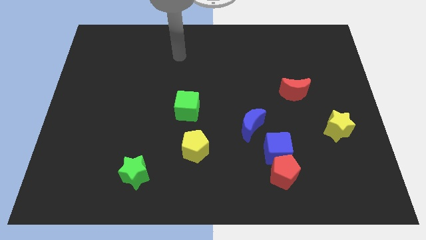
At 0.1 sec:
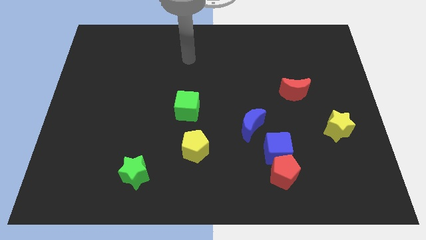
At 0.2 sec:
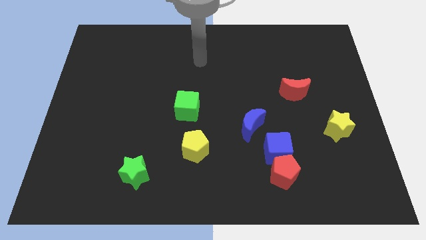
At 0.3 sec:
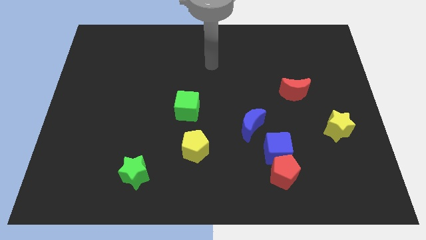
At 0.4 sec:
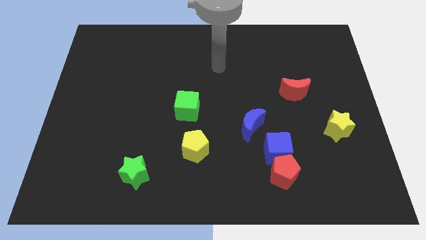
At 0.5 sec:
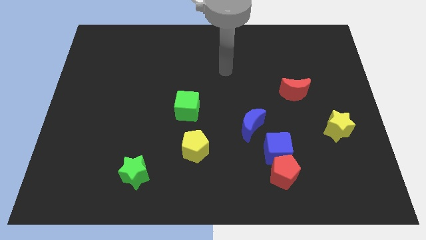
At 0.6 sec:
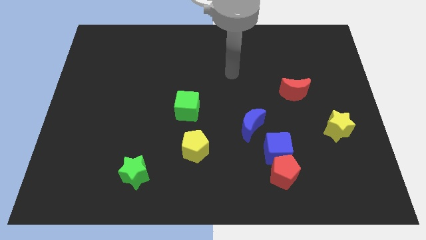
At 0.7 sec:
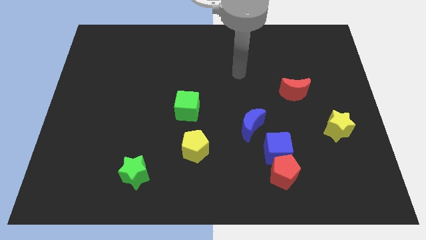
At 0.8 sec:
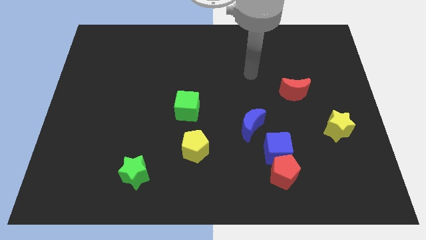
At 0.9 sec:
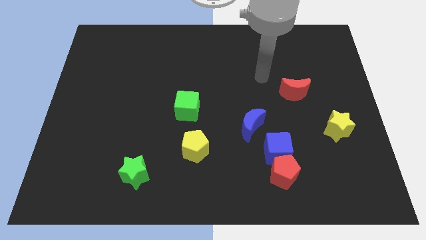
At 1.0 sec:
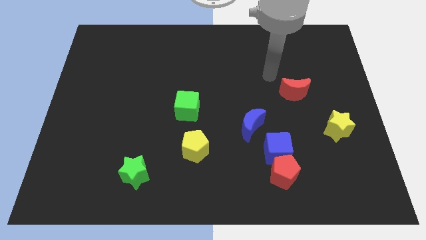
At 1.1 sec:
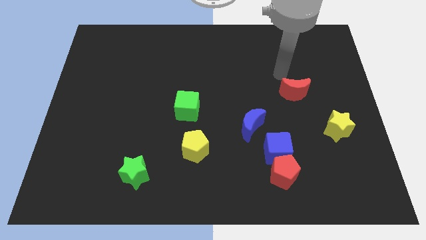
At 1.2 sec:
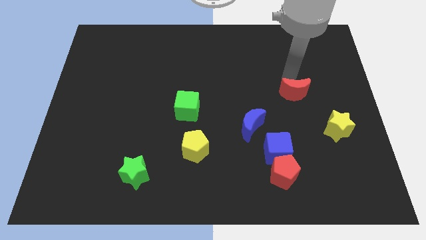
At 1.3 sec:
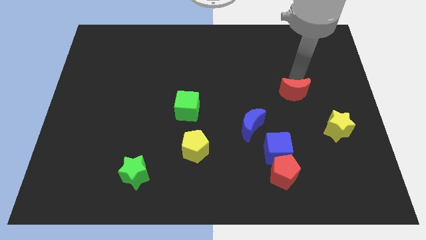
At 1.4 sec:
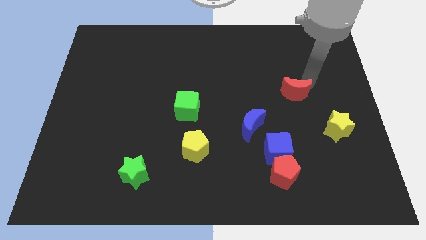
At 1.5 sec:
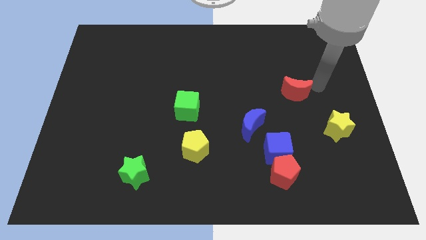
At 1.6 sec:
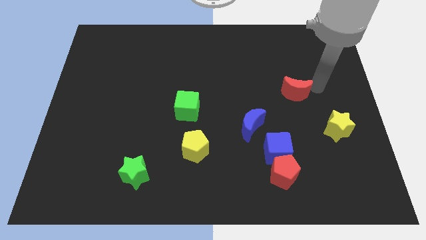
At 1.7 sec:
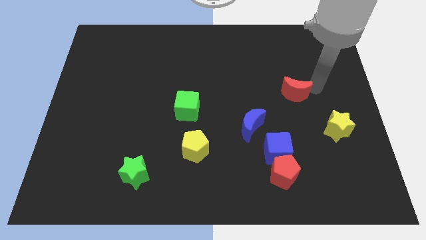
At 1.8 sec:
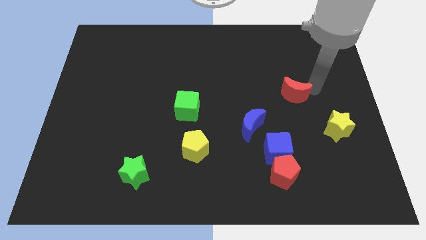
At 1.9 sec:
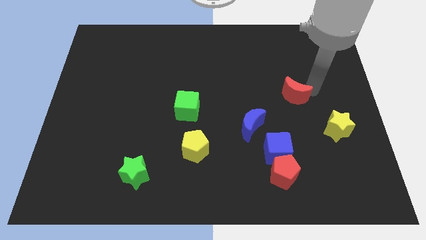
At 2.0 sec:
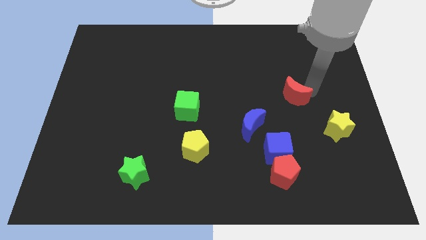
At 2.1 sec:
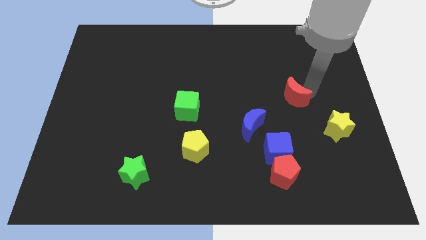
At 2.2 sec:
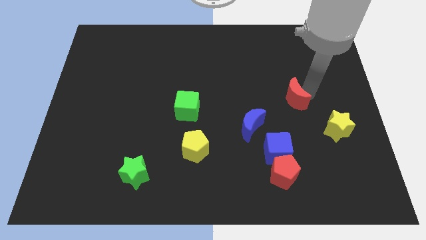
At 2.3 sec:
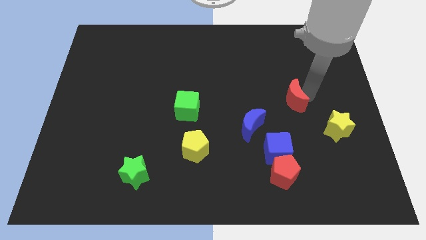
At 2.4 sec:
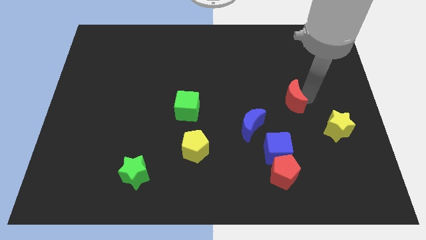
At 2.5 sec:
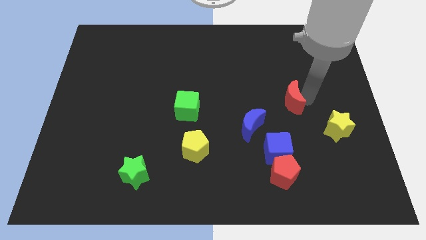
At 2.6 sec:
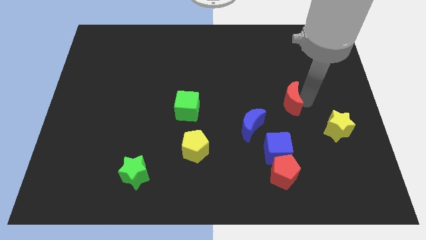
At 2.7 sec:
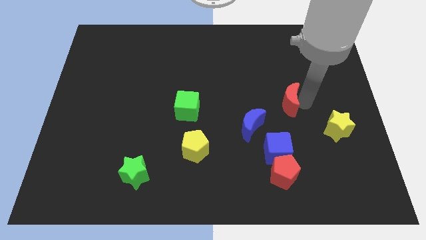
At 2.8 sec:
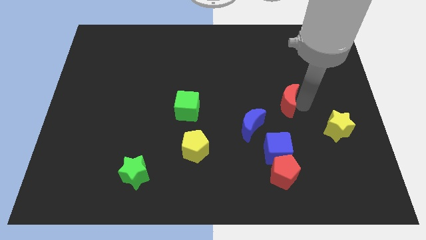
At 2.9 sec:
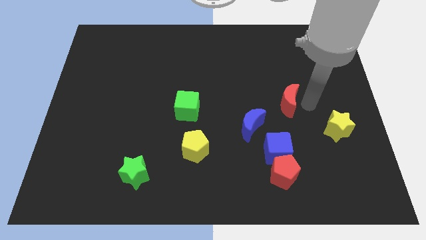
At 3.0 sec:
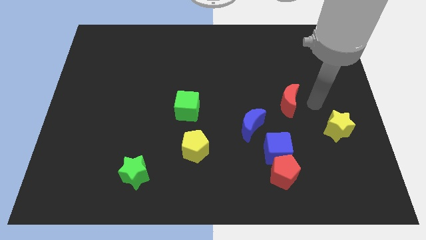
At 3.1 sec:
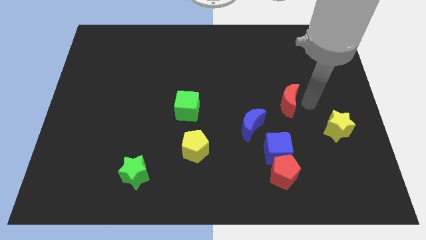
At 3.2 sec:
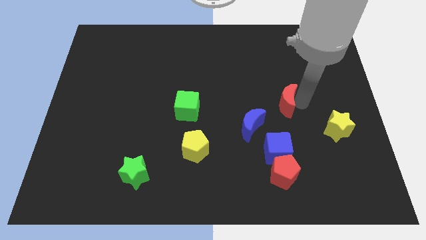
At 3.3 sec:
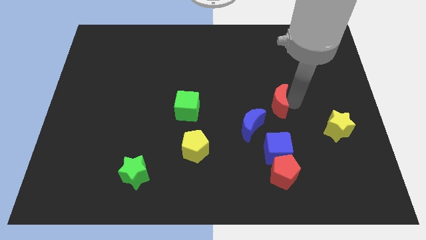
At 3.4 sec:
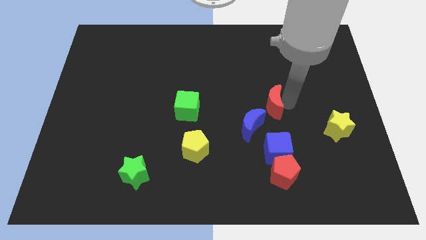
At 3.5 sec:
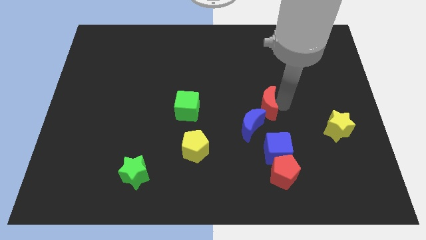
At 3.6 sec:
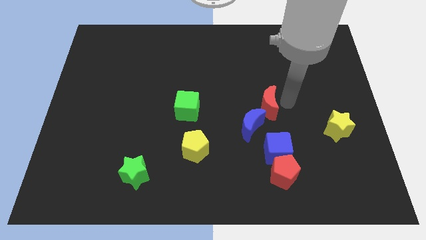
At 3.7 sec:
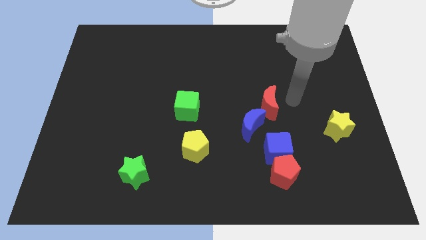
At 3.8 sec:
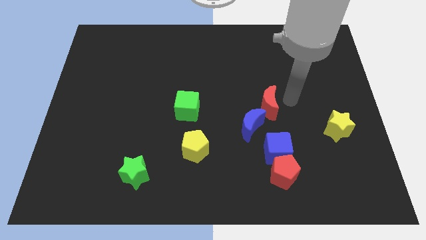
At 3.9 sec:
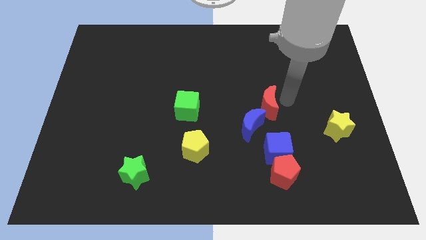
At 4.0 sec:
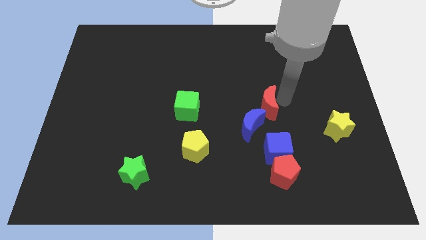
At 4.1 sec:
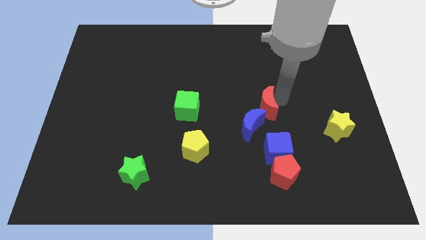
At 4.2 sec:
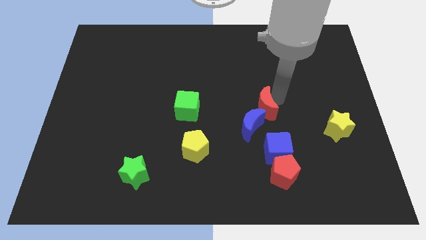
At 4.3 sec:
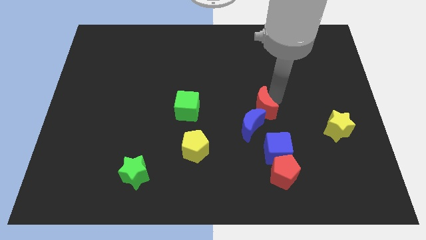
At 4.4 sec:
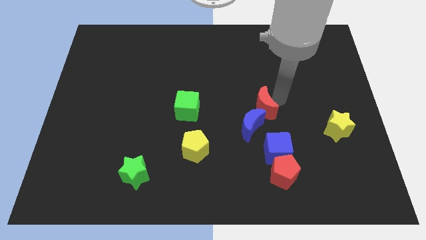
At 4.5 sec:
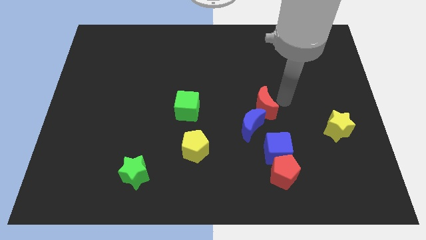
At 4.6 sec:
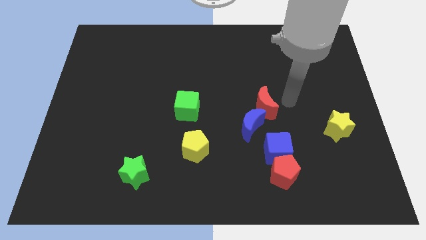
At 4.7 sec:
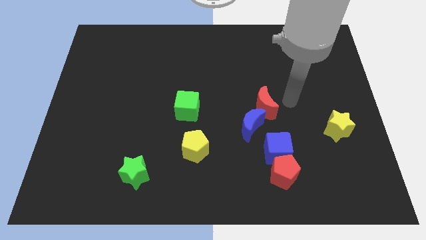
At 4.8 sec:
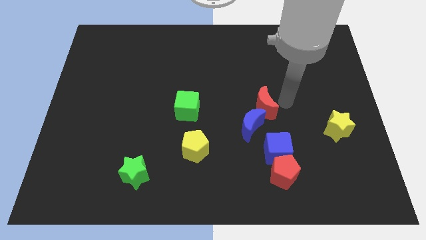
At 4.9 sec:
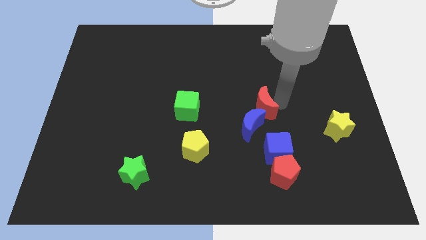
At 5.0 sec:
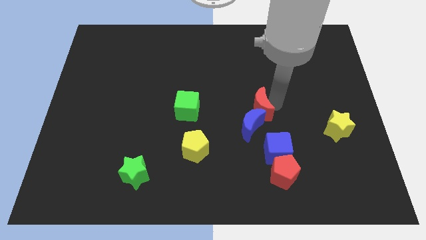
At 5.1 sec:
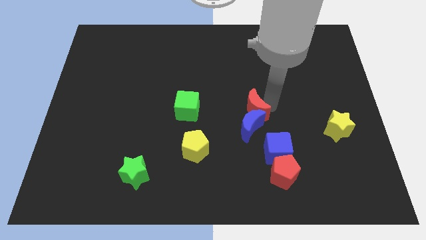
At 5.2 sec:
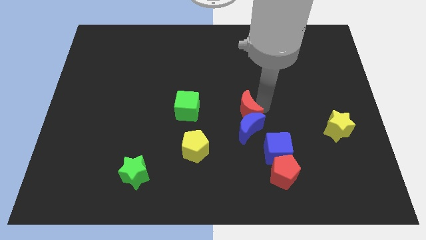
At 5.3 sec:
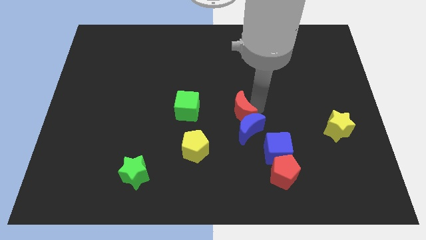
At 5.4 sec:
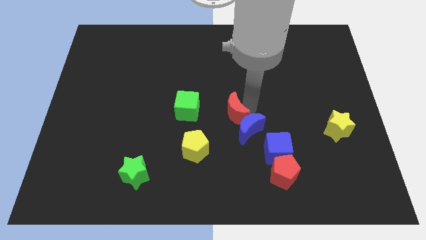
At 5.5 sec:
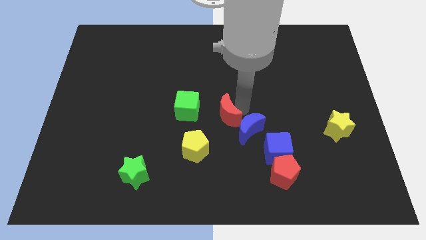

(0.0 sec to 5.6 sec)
move the red moon to the top right of the yellow pentagon

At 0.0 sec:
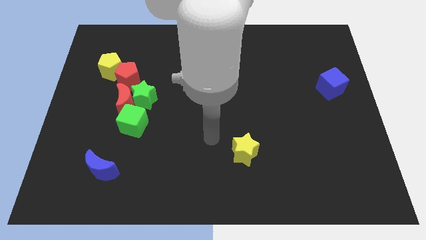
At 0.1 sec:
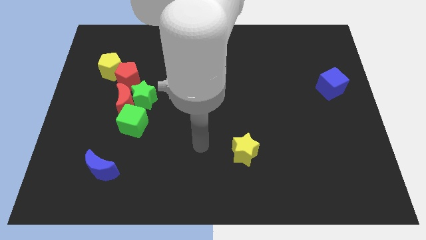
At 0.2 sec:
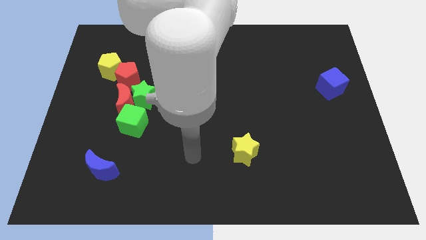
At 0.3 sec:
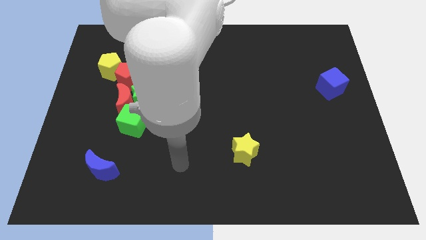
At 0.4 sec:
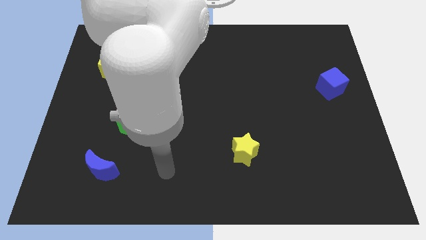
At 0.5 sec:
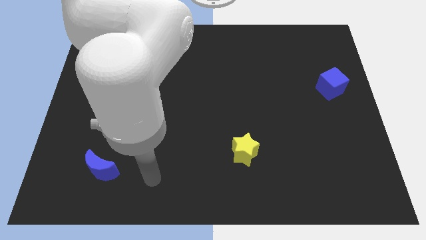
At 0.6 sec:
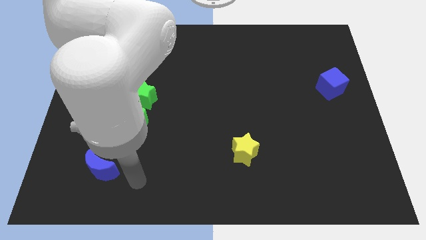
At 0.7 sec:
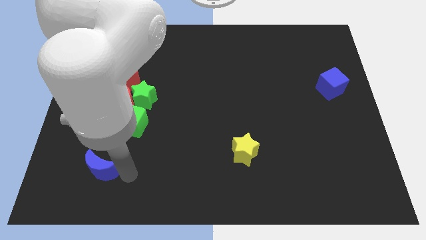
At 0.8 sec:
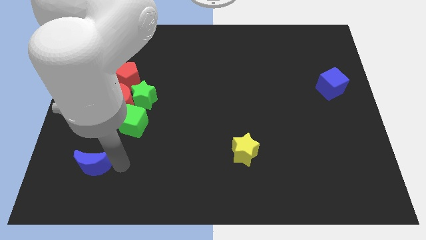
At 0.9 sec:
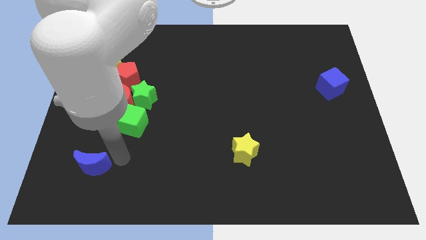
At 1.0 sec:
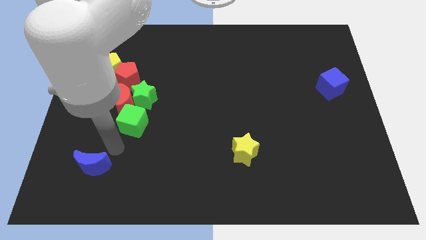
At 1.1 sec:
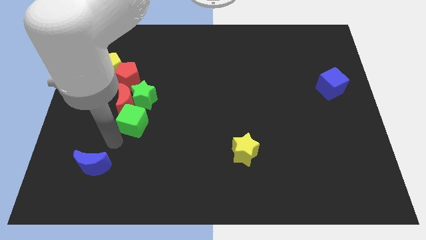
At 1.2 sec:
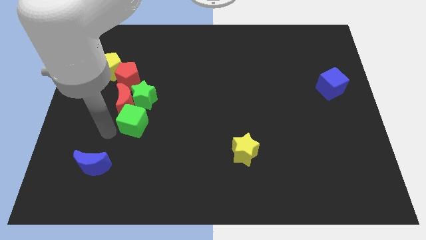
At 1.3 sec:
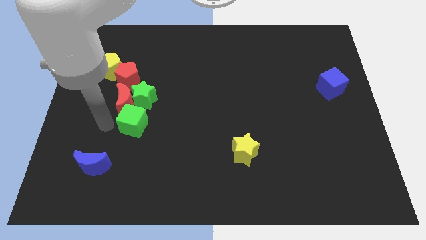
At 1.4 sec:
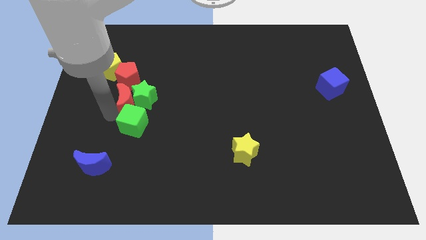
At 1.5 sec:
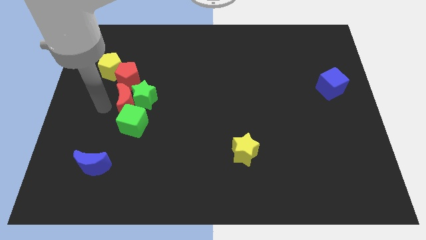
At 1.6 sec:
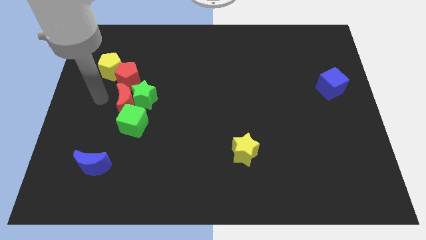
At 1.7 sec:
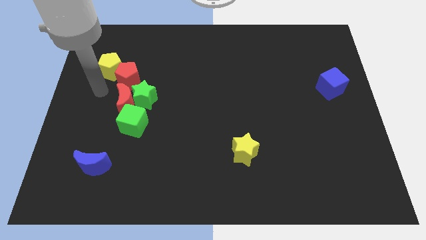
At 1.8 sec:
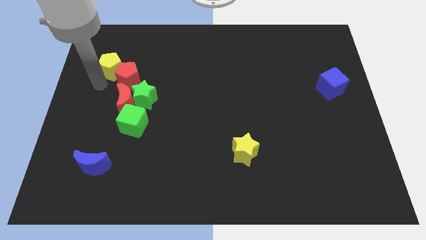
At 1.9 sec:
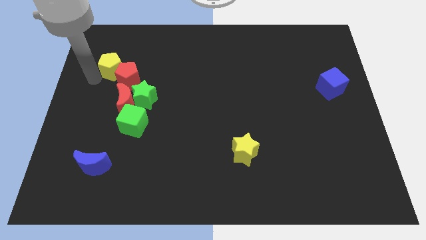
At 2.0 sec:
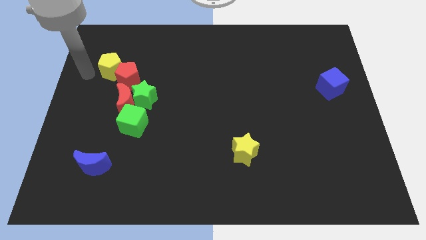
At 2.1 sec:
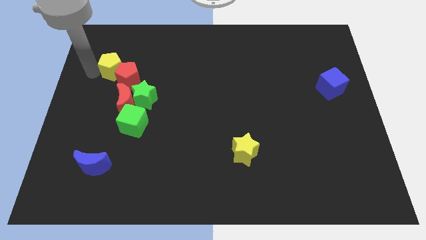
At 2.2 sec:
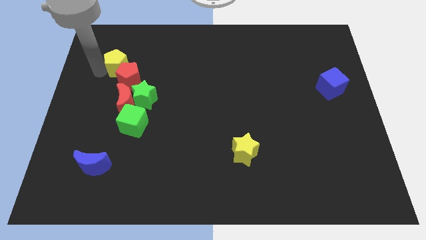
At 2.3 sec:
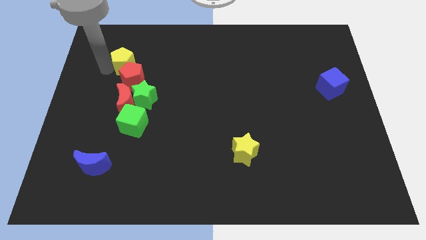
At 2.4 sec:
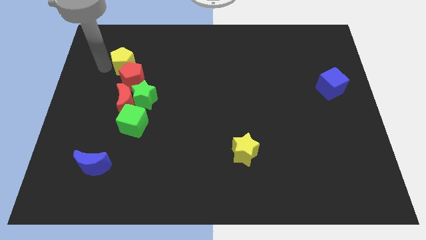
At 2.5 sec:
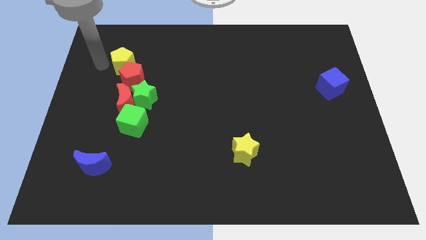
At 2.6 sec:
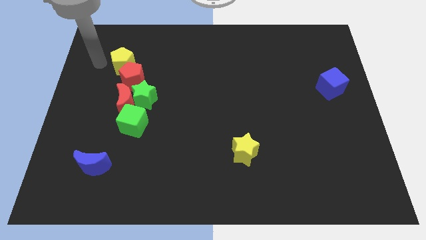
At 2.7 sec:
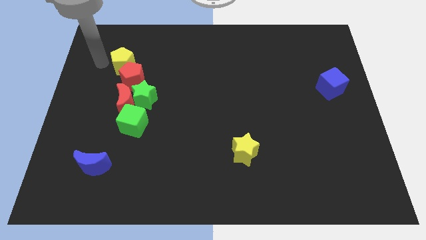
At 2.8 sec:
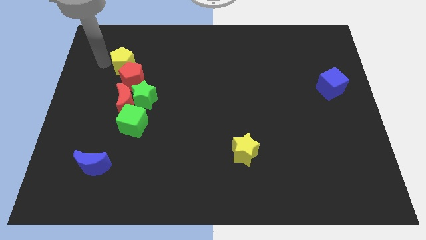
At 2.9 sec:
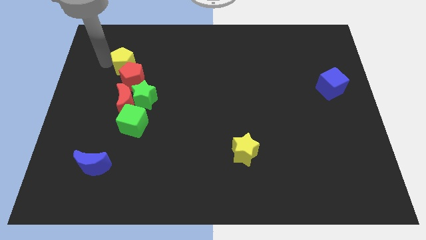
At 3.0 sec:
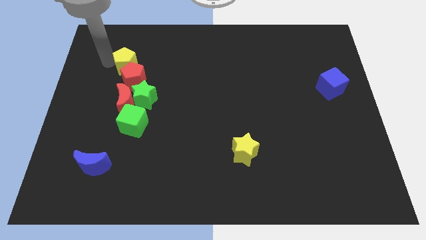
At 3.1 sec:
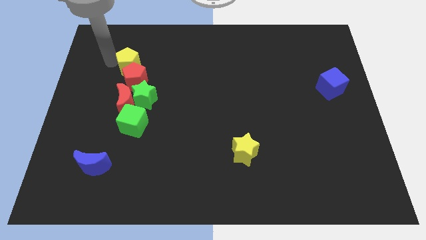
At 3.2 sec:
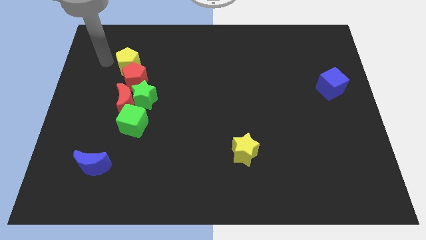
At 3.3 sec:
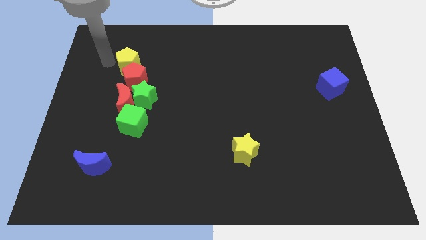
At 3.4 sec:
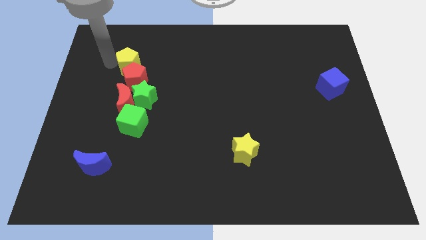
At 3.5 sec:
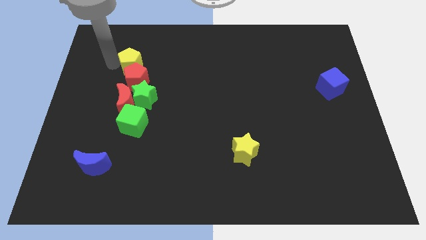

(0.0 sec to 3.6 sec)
put the yellow pentagon to the top of the green star
